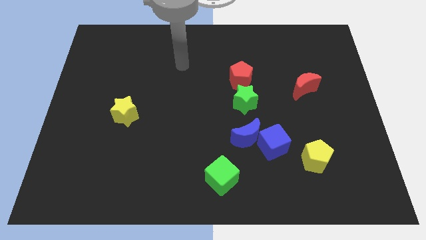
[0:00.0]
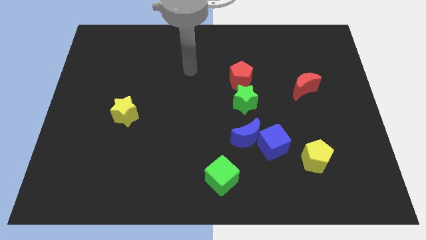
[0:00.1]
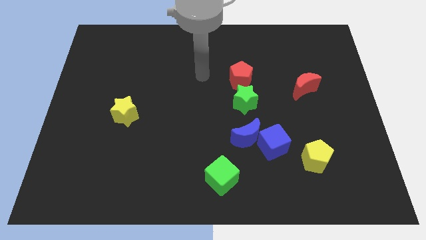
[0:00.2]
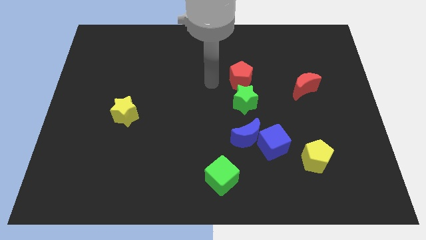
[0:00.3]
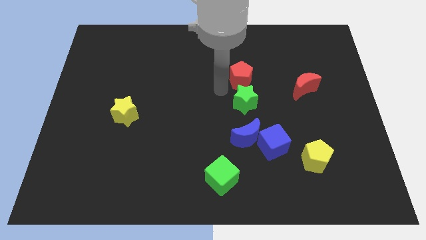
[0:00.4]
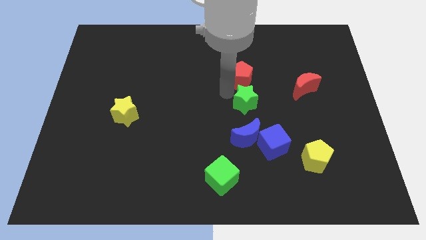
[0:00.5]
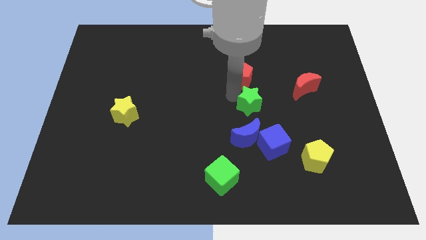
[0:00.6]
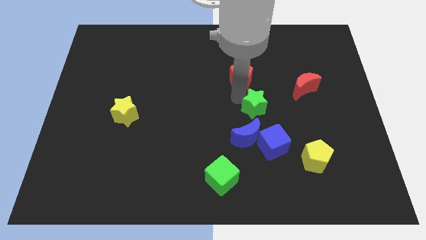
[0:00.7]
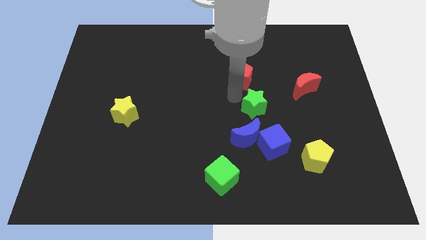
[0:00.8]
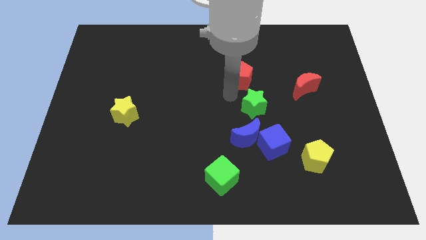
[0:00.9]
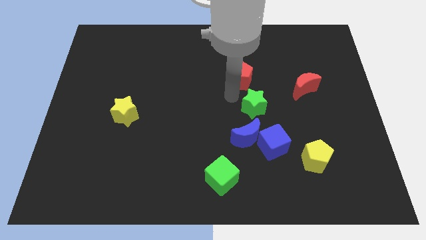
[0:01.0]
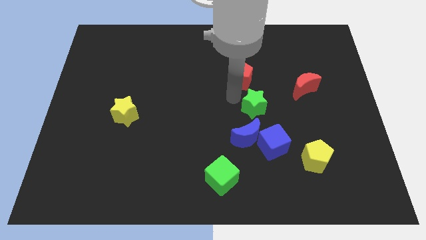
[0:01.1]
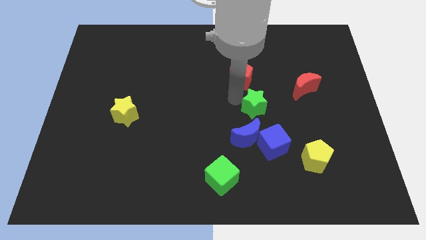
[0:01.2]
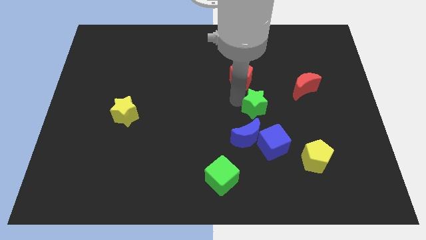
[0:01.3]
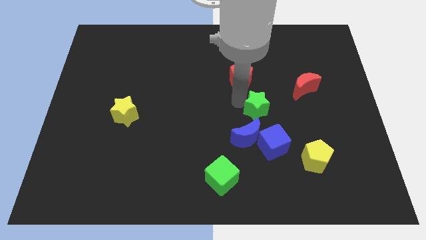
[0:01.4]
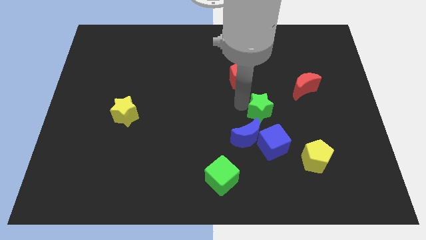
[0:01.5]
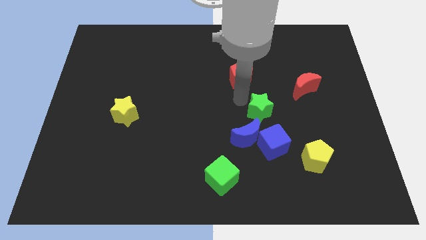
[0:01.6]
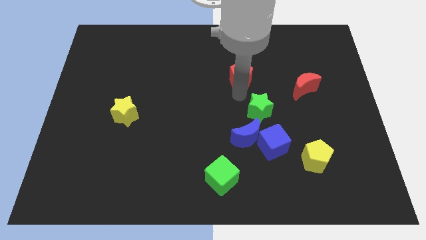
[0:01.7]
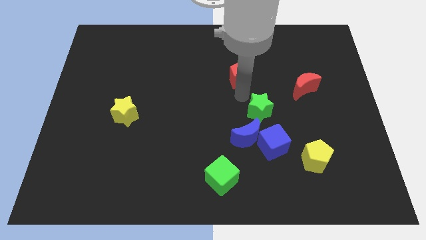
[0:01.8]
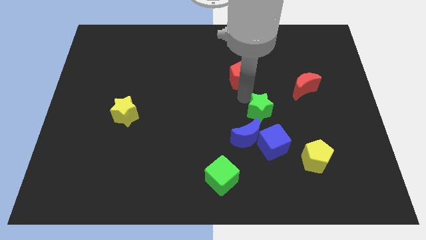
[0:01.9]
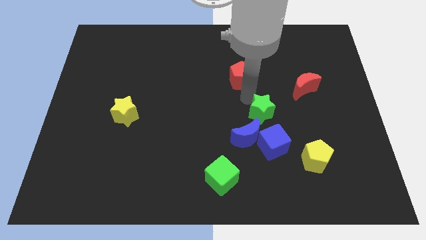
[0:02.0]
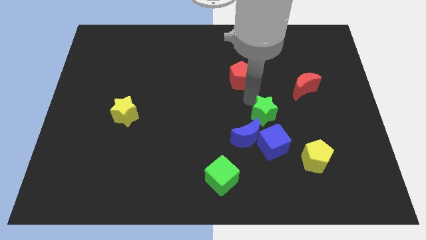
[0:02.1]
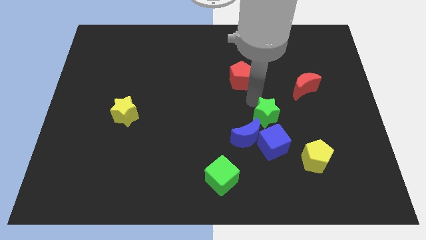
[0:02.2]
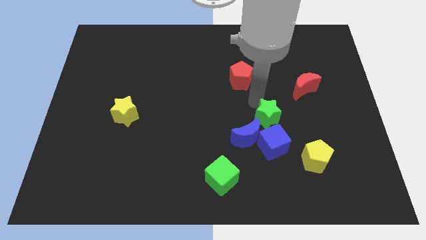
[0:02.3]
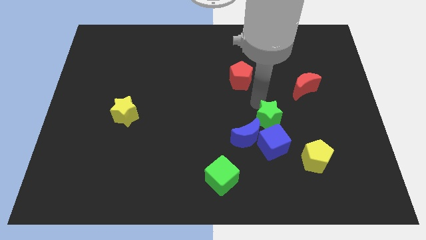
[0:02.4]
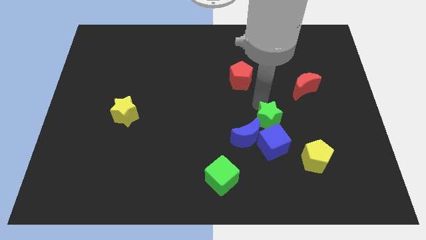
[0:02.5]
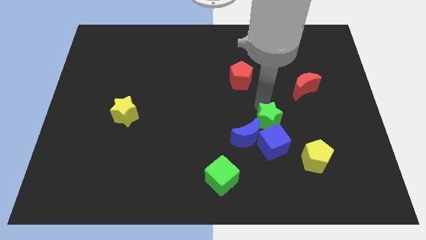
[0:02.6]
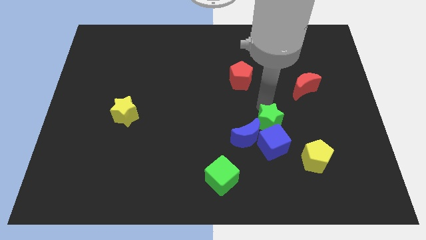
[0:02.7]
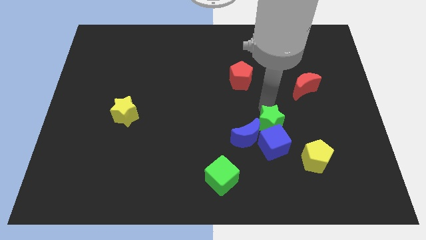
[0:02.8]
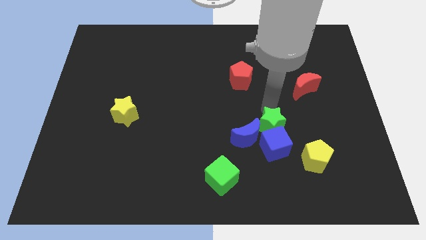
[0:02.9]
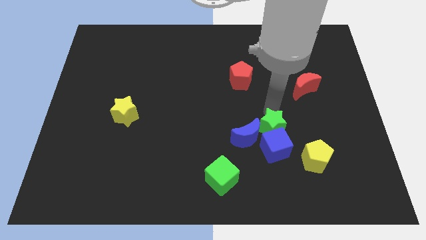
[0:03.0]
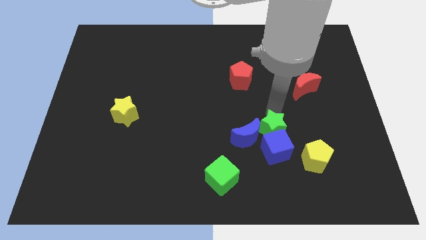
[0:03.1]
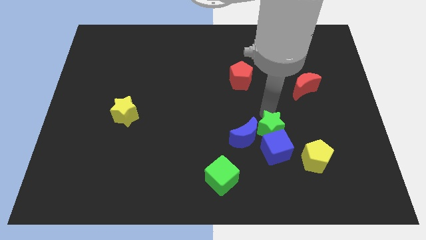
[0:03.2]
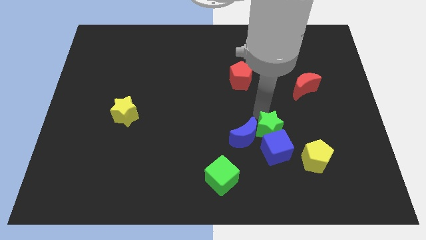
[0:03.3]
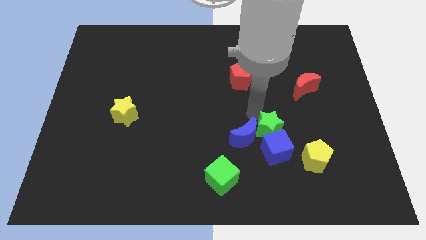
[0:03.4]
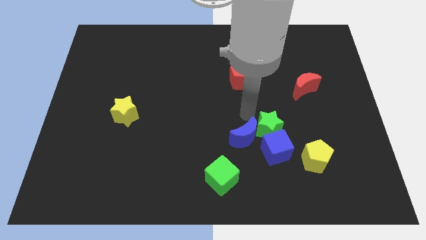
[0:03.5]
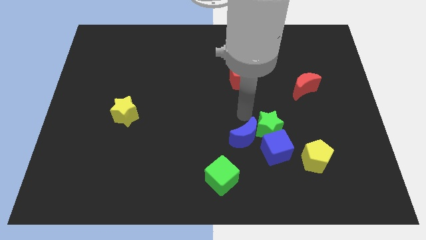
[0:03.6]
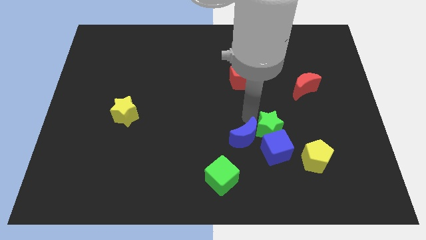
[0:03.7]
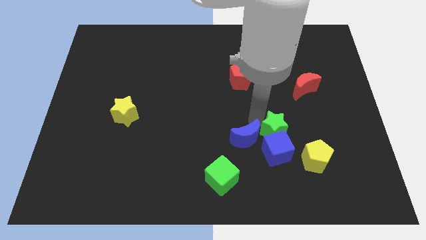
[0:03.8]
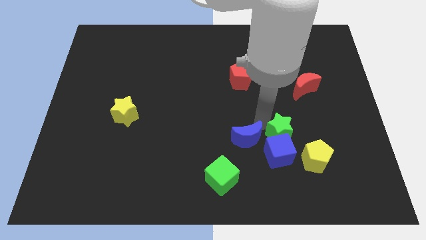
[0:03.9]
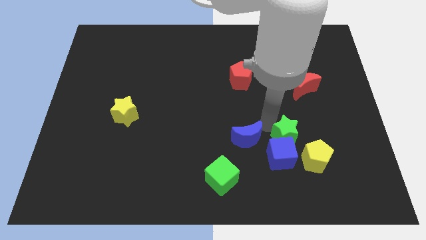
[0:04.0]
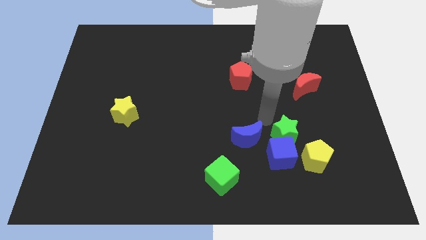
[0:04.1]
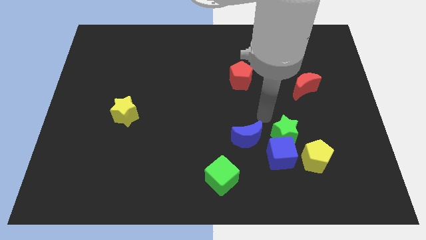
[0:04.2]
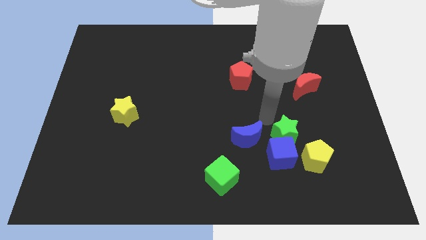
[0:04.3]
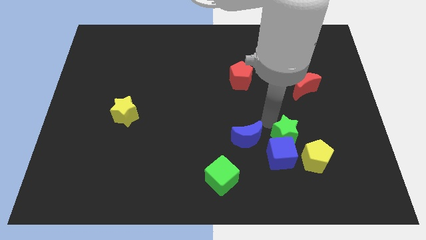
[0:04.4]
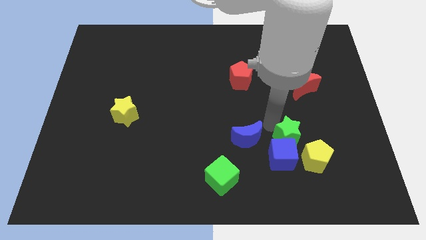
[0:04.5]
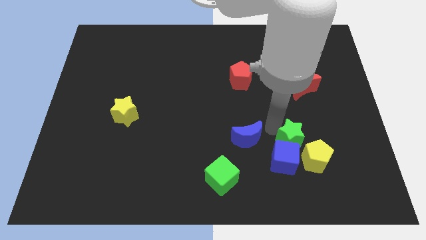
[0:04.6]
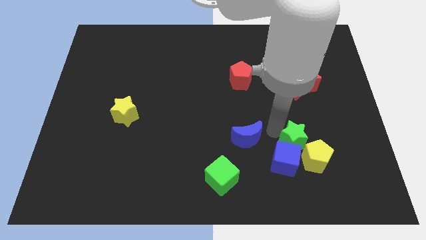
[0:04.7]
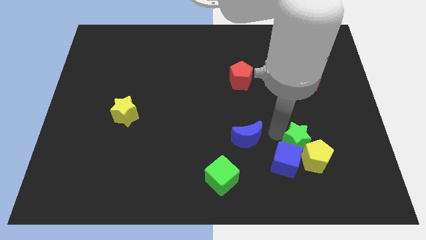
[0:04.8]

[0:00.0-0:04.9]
slide the green star towards the yellow pentagon

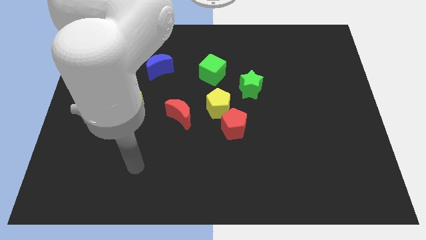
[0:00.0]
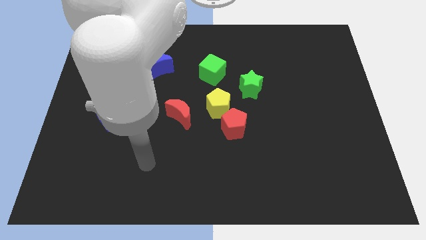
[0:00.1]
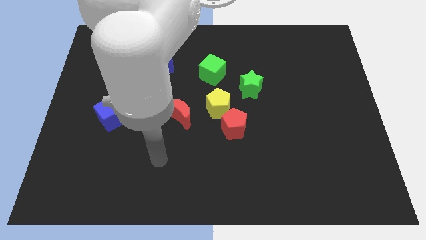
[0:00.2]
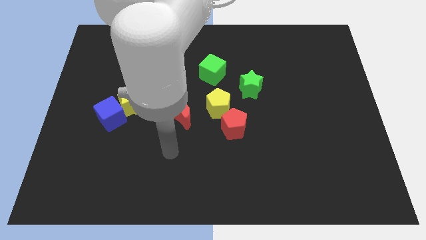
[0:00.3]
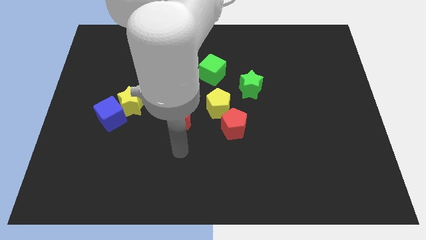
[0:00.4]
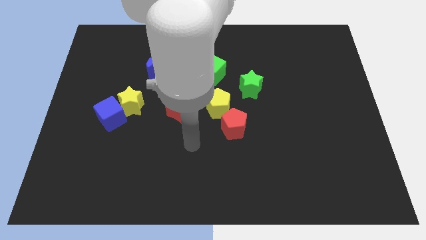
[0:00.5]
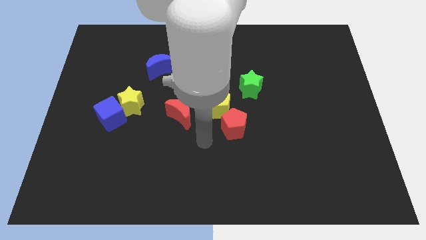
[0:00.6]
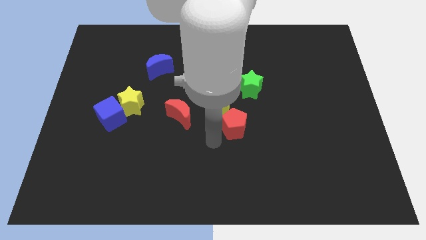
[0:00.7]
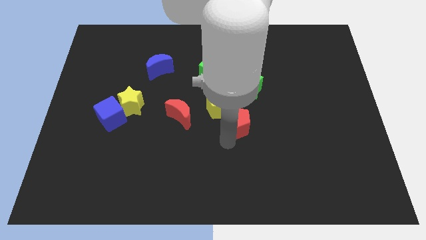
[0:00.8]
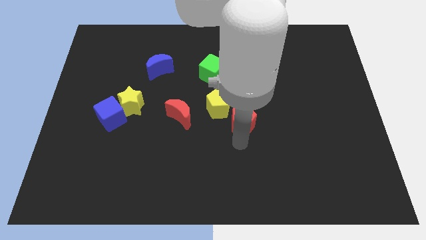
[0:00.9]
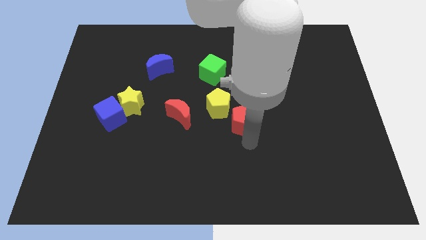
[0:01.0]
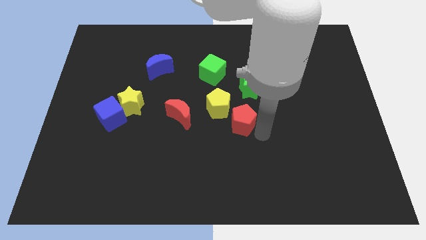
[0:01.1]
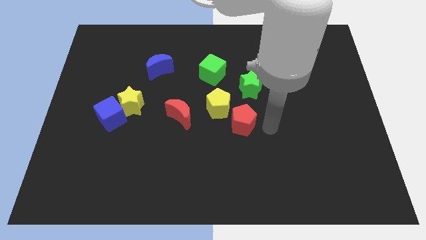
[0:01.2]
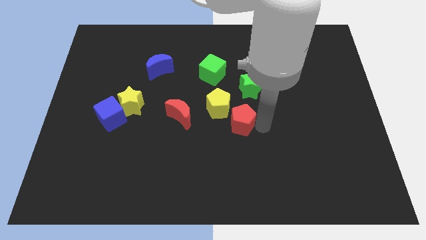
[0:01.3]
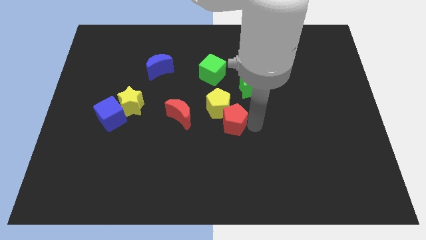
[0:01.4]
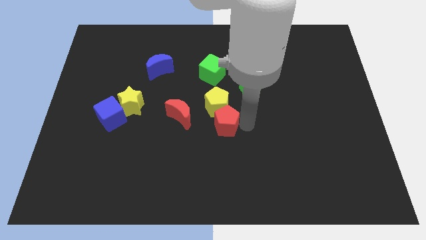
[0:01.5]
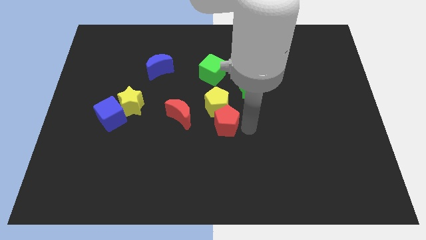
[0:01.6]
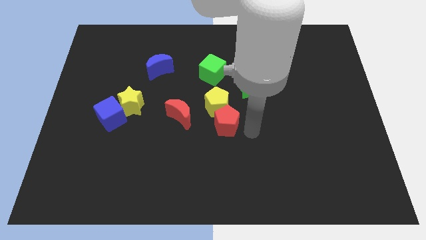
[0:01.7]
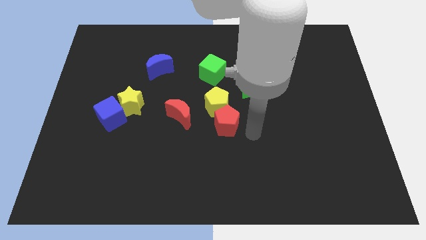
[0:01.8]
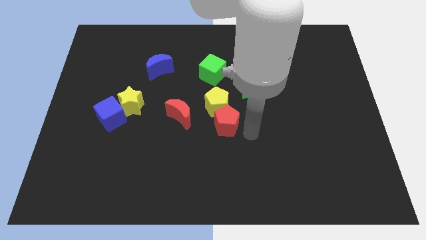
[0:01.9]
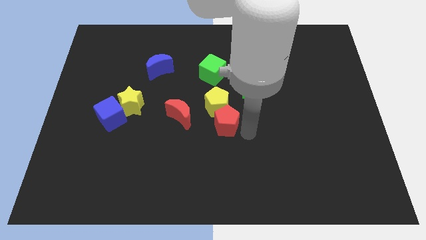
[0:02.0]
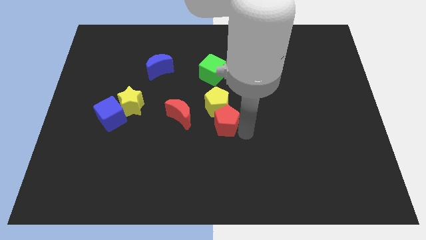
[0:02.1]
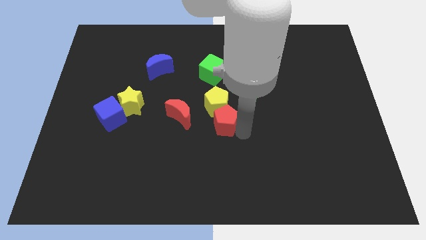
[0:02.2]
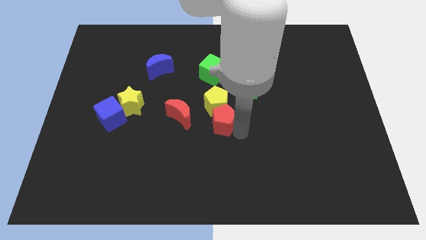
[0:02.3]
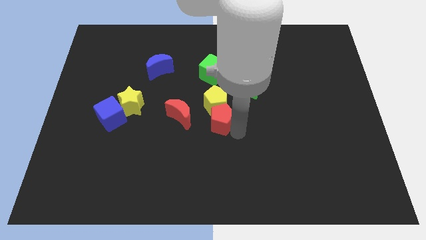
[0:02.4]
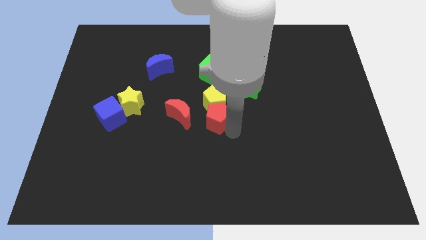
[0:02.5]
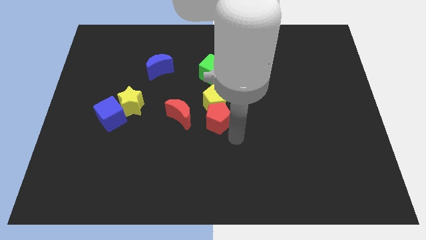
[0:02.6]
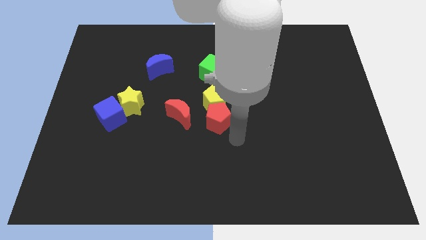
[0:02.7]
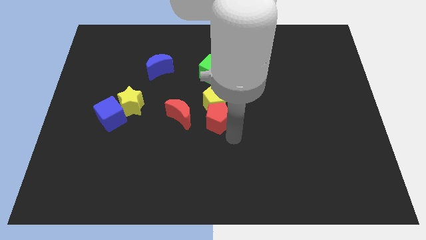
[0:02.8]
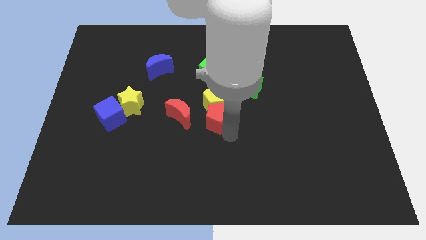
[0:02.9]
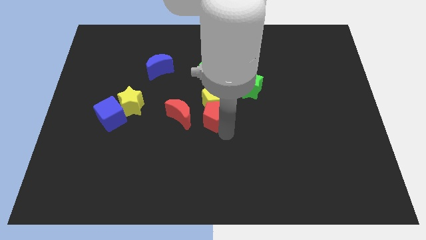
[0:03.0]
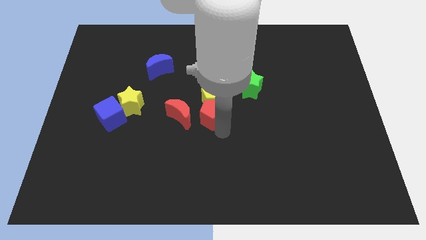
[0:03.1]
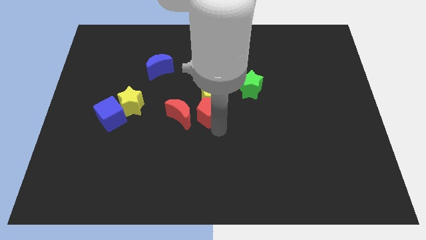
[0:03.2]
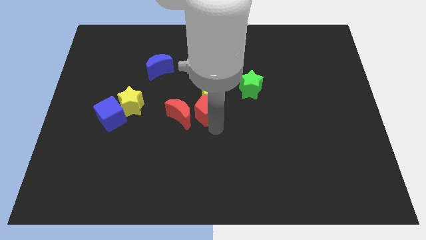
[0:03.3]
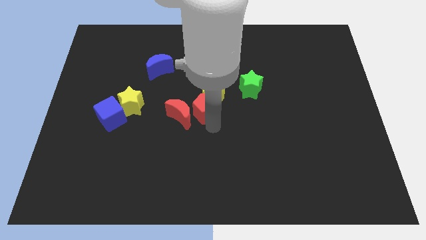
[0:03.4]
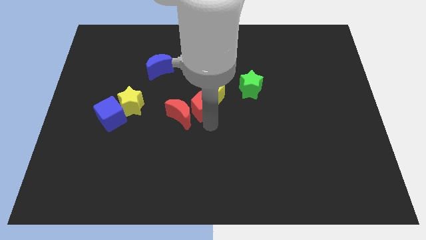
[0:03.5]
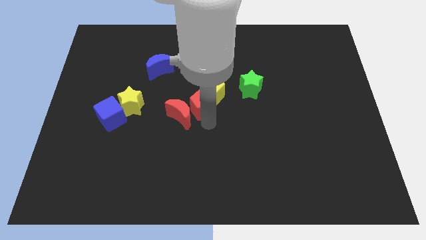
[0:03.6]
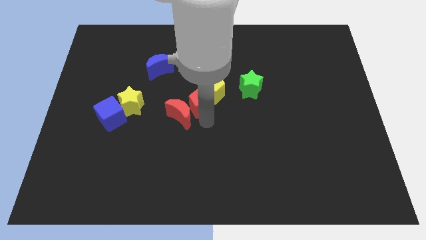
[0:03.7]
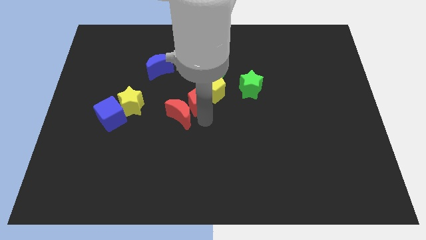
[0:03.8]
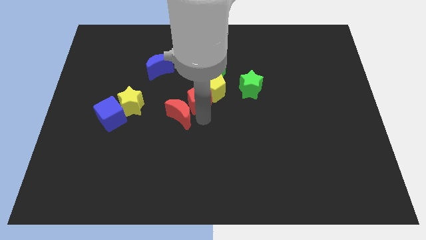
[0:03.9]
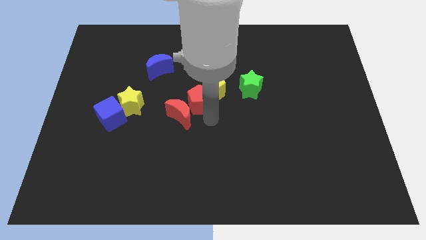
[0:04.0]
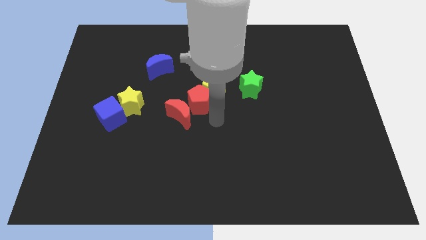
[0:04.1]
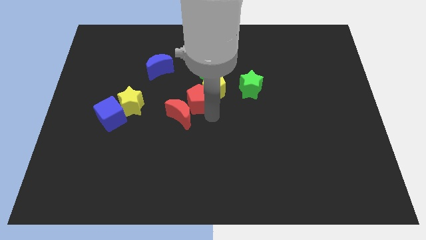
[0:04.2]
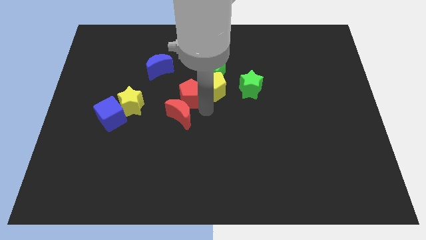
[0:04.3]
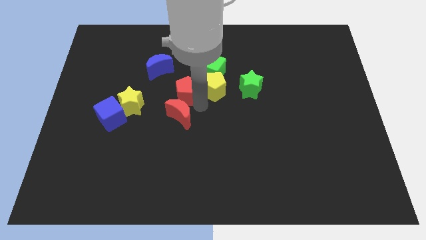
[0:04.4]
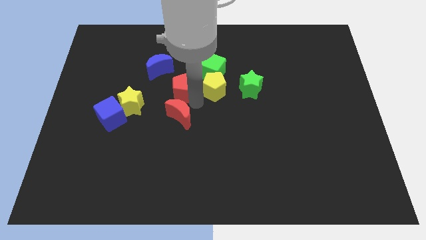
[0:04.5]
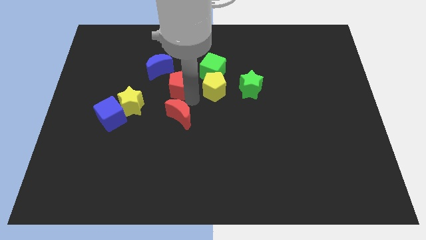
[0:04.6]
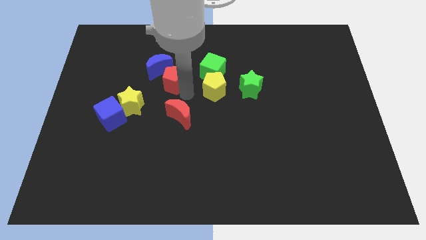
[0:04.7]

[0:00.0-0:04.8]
push the red pentagon to the blue moon
